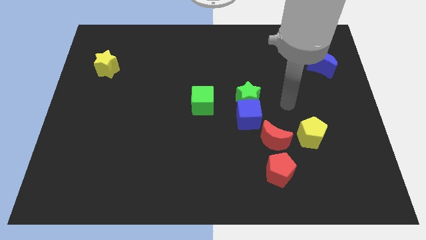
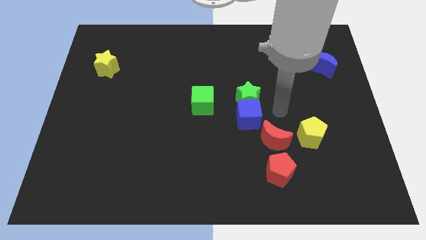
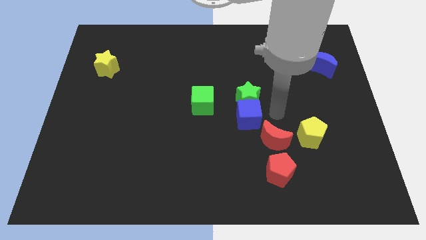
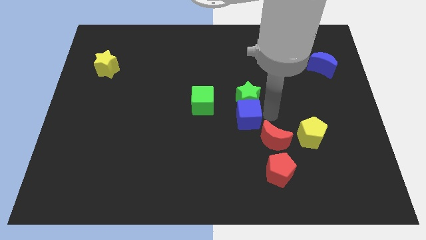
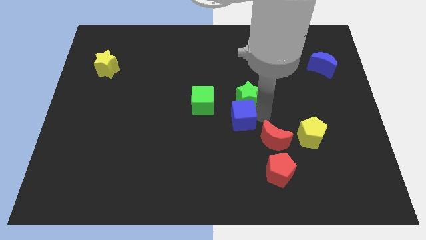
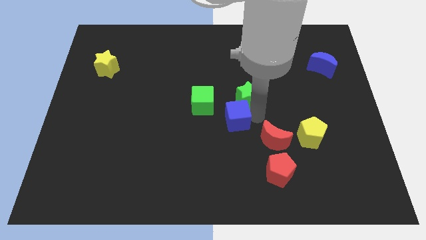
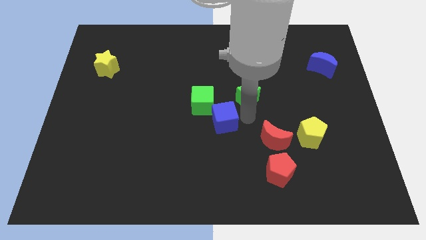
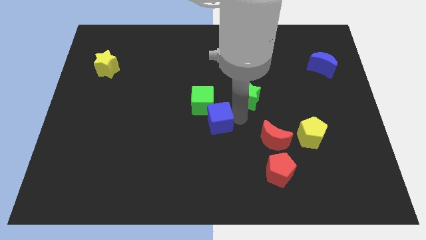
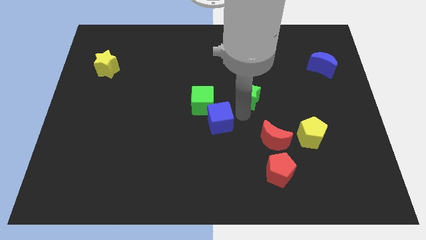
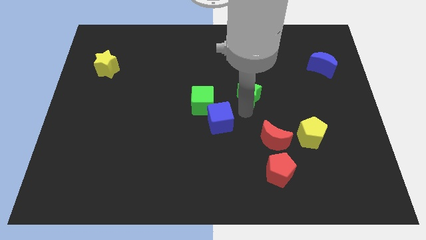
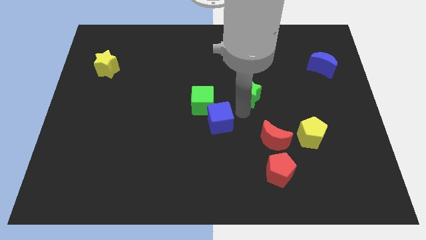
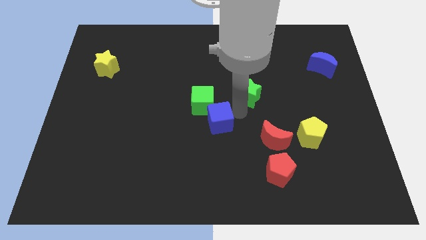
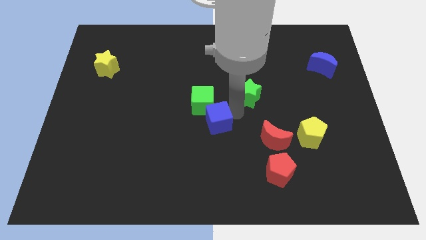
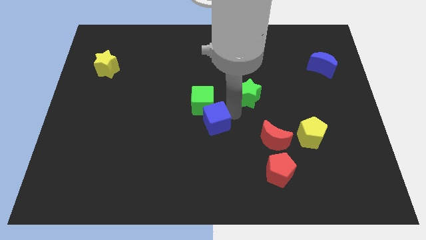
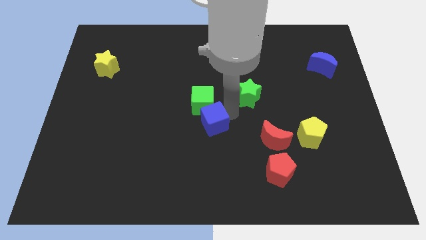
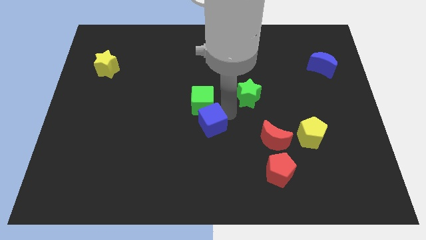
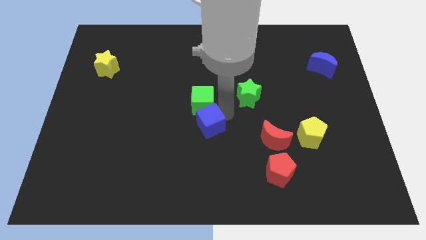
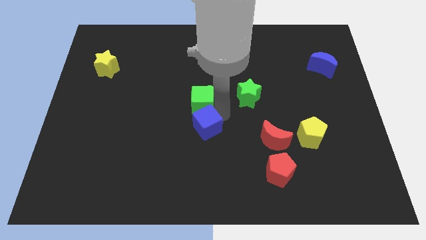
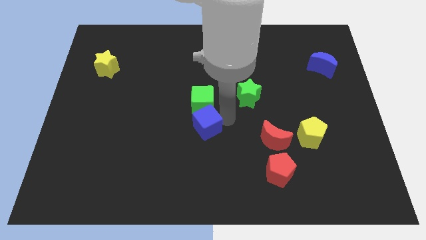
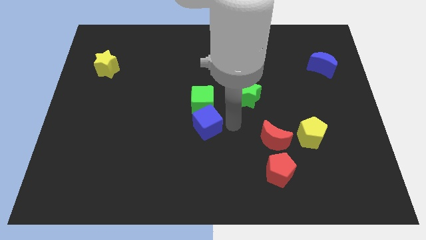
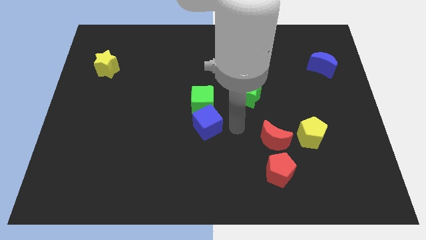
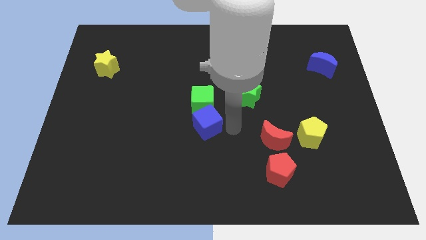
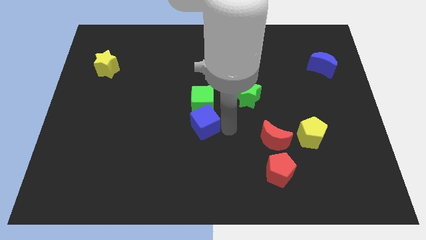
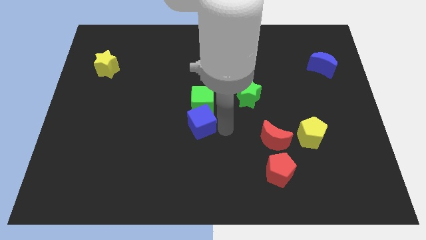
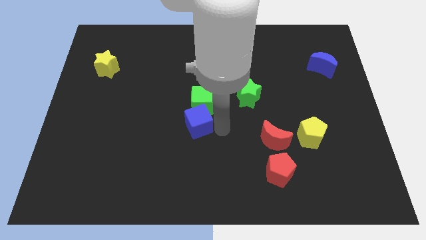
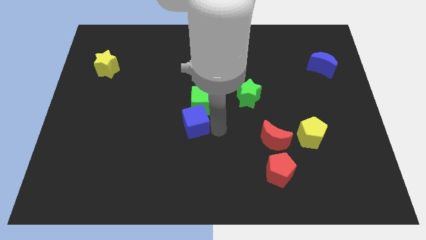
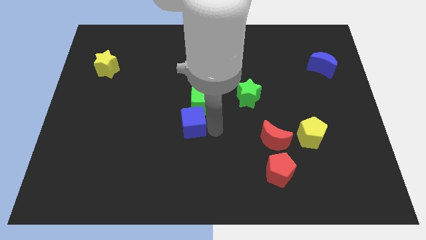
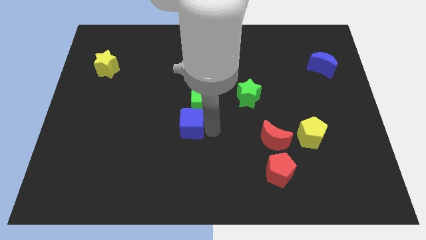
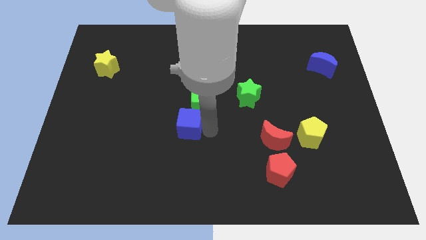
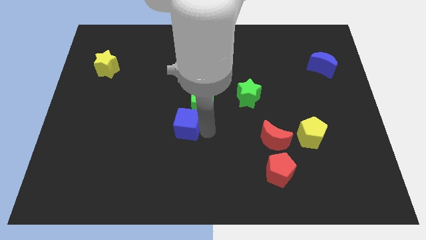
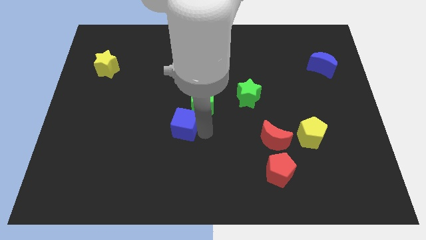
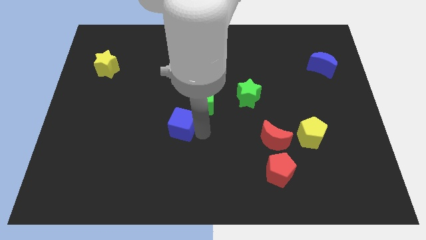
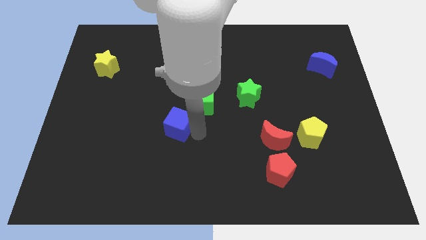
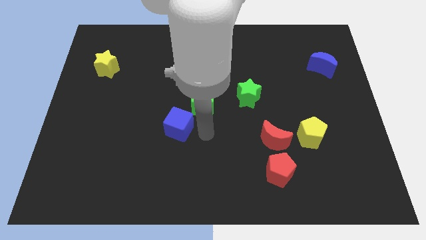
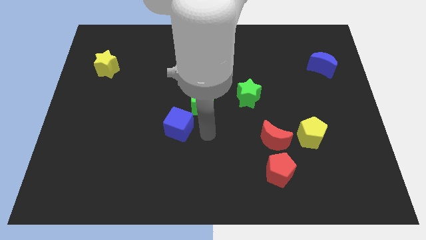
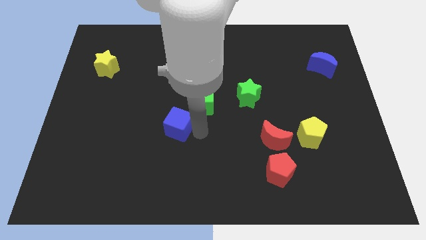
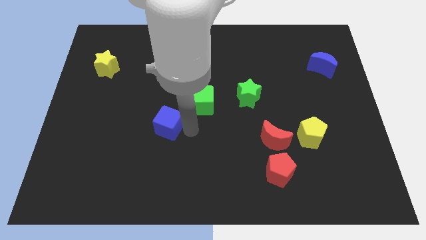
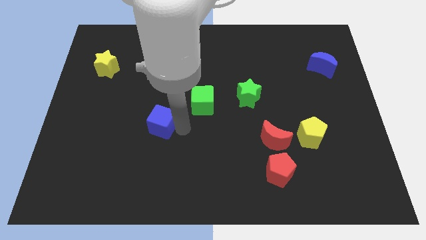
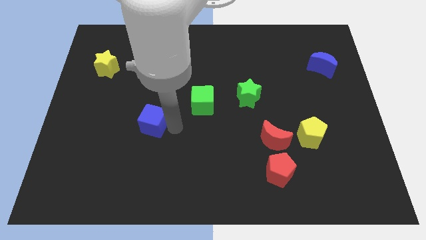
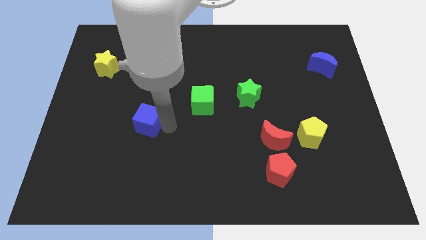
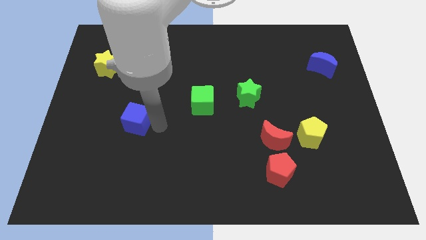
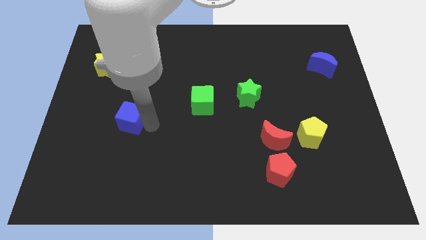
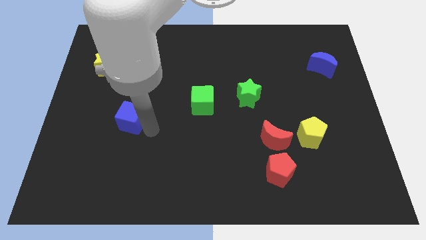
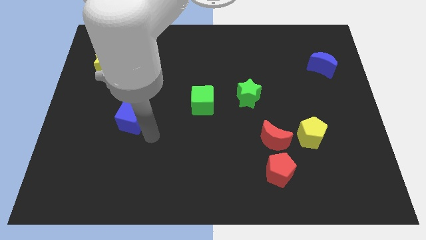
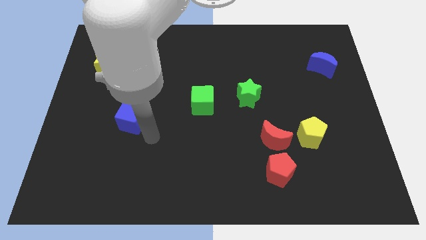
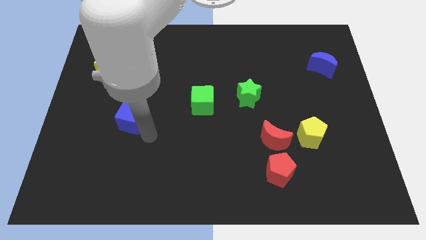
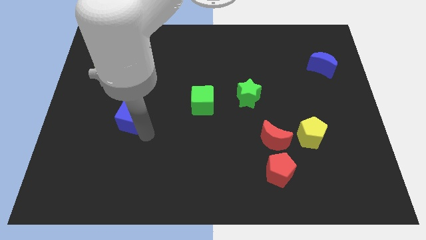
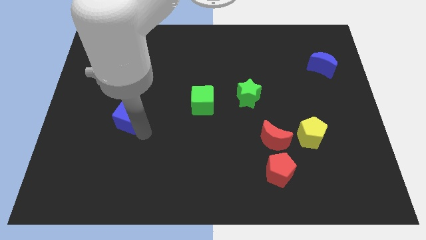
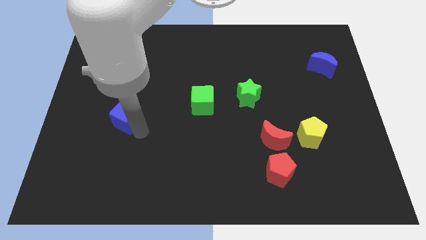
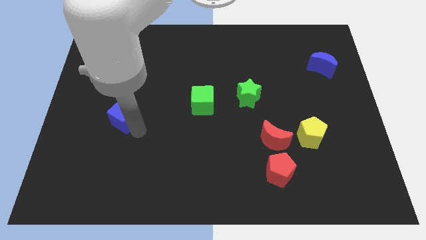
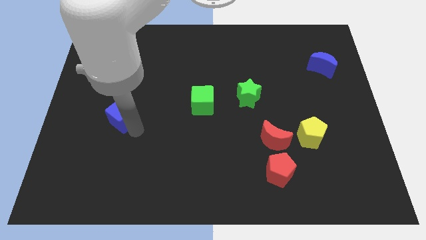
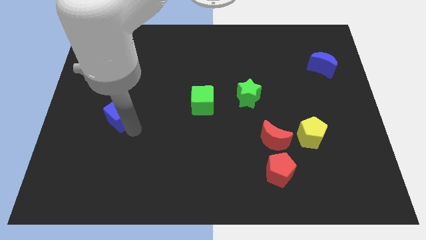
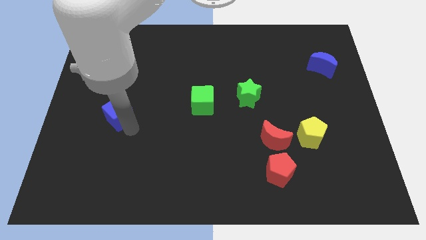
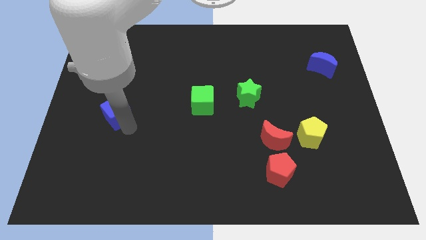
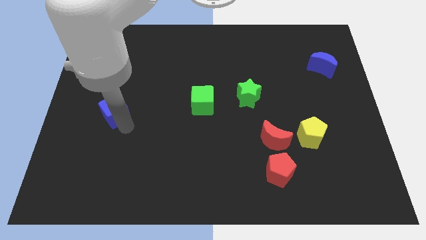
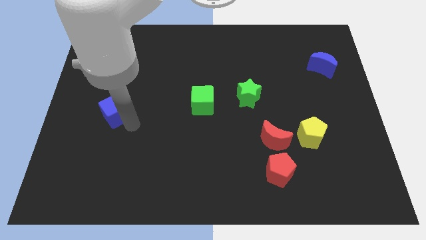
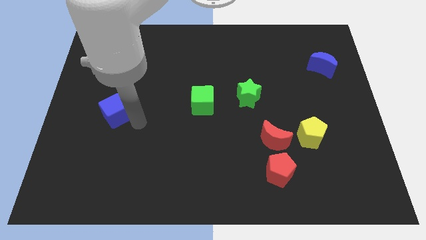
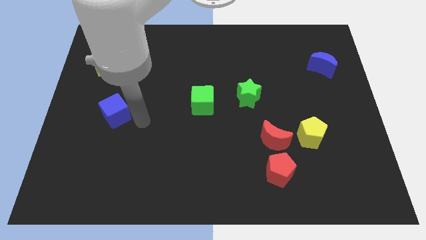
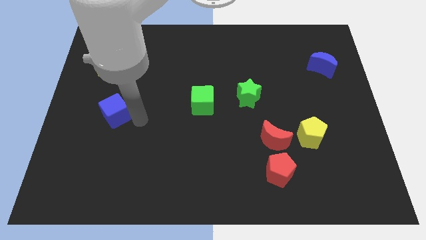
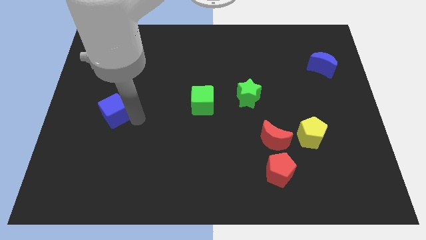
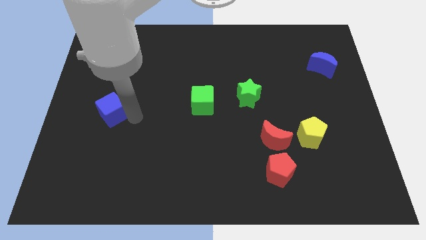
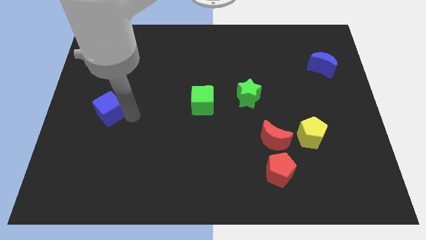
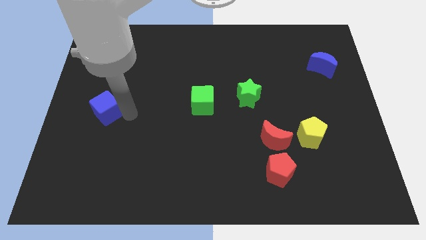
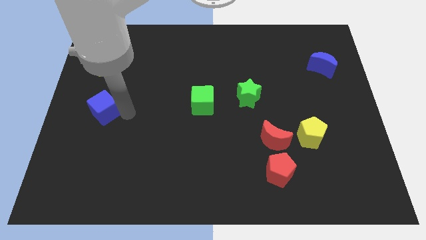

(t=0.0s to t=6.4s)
slide the blue cube to the left side of the board
